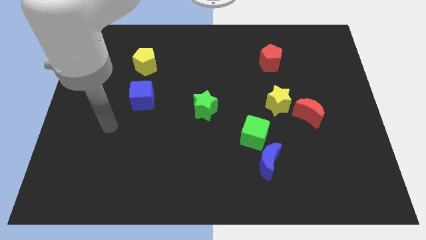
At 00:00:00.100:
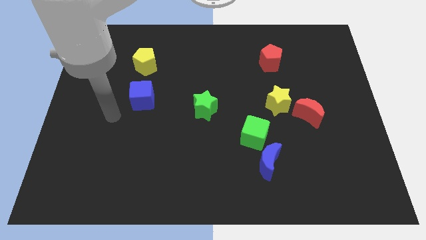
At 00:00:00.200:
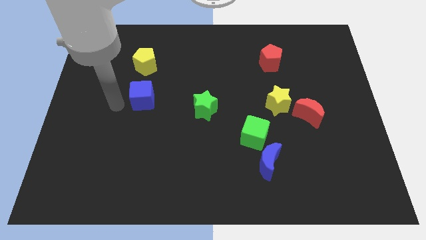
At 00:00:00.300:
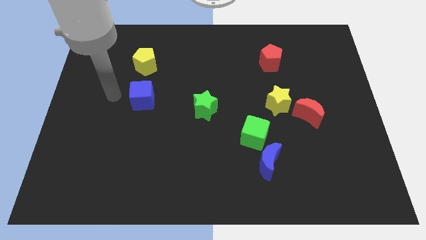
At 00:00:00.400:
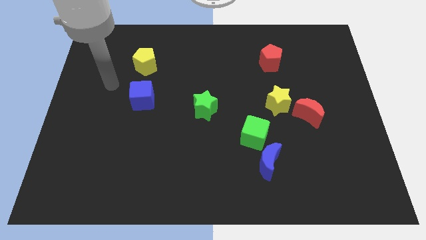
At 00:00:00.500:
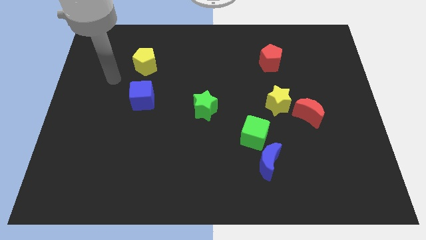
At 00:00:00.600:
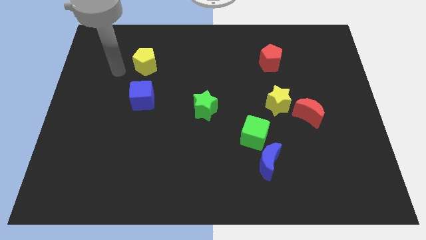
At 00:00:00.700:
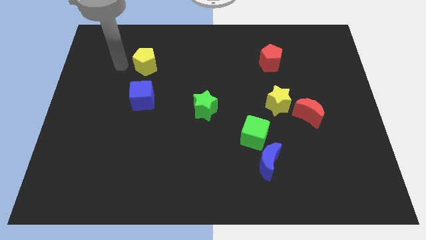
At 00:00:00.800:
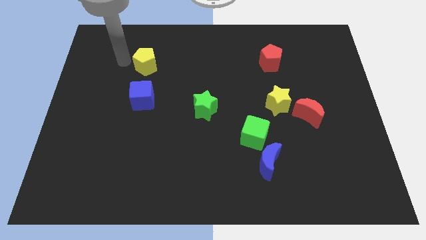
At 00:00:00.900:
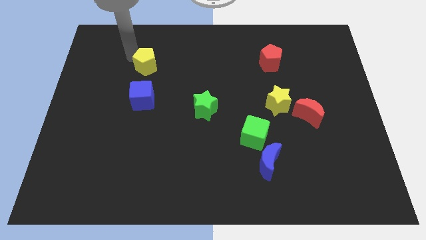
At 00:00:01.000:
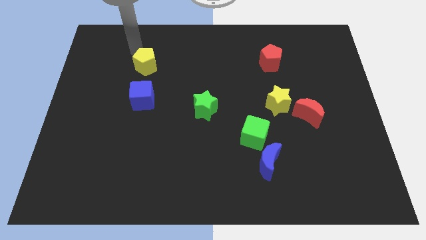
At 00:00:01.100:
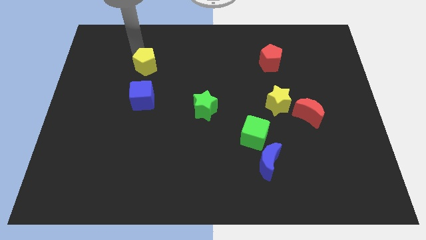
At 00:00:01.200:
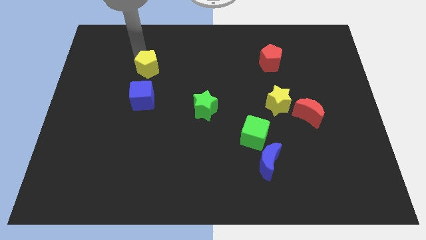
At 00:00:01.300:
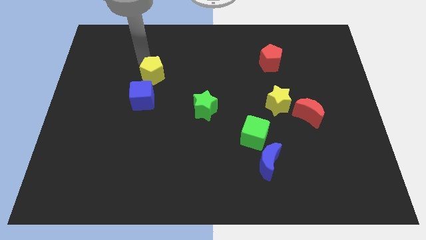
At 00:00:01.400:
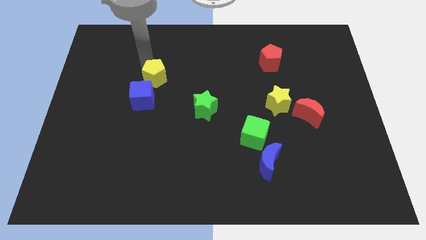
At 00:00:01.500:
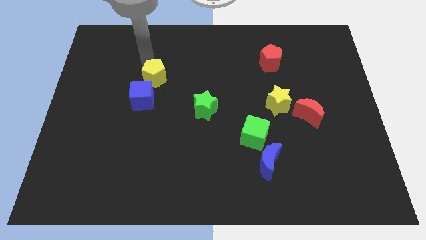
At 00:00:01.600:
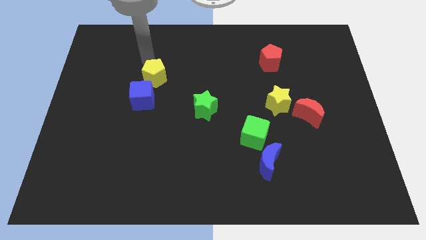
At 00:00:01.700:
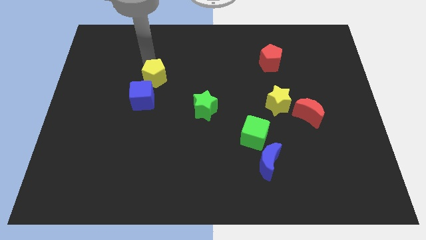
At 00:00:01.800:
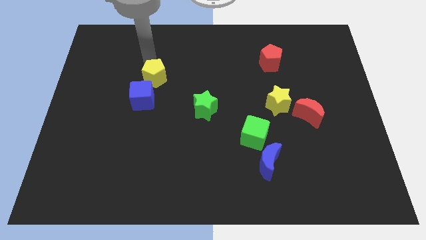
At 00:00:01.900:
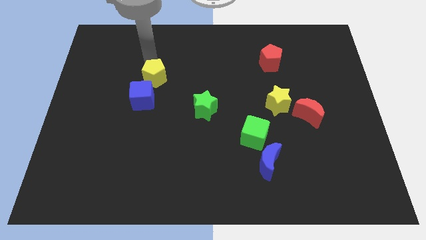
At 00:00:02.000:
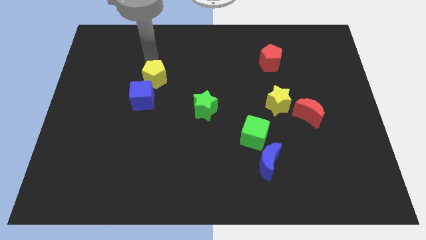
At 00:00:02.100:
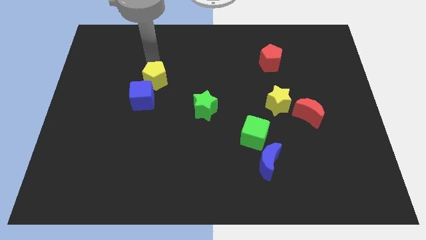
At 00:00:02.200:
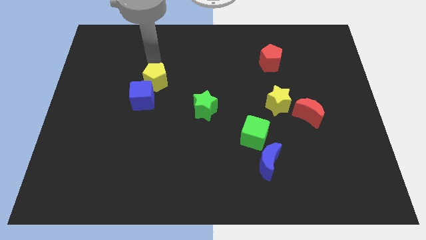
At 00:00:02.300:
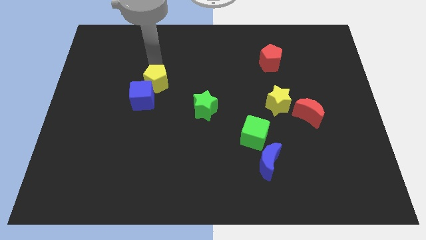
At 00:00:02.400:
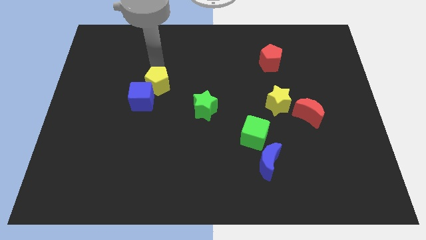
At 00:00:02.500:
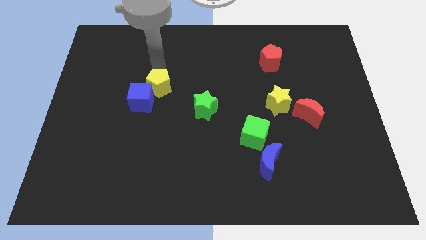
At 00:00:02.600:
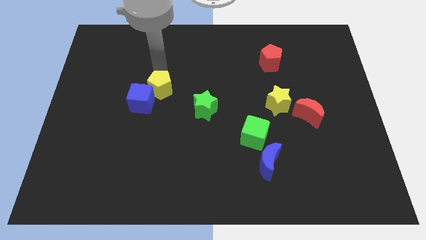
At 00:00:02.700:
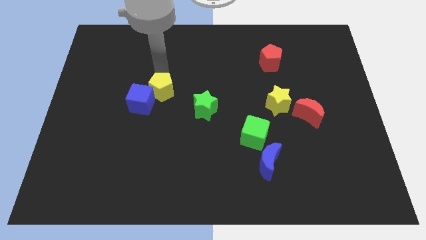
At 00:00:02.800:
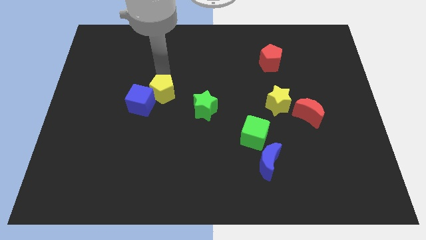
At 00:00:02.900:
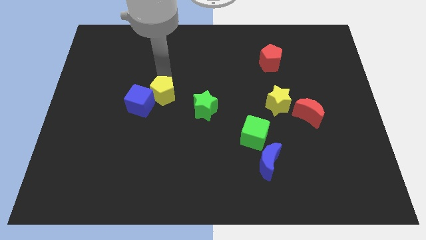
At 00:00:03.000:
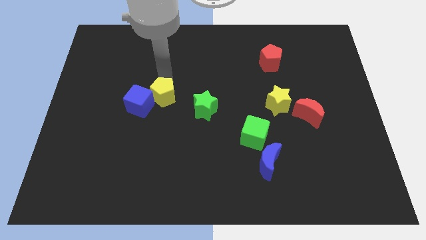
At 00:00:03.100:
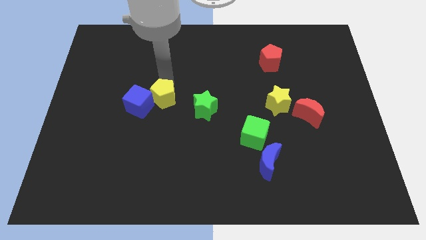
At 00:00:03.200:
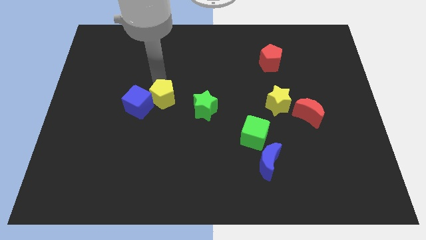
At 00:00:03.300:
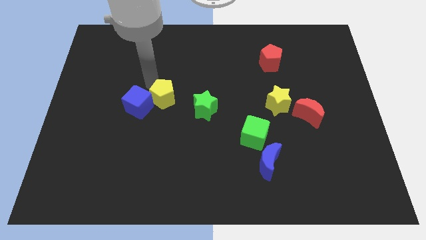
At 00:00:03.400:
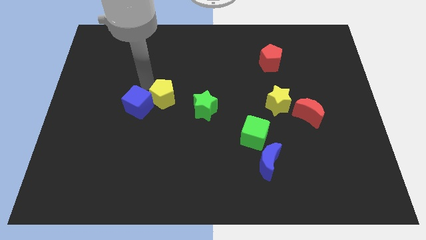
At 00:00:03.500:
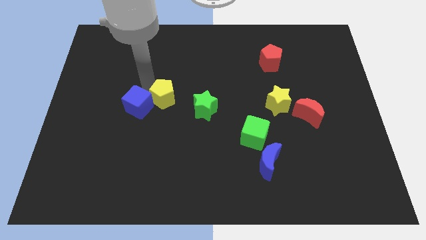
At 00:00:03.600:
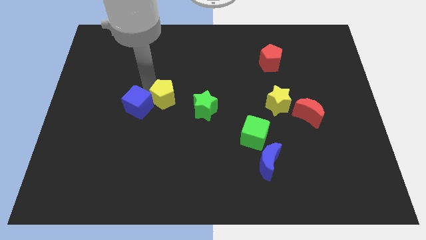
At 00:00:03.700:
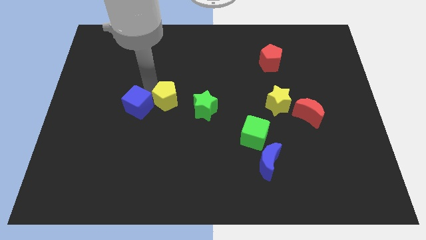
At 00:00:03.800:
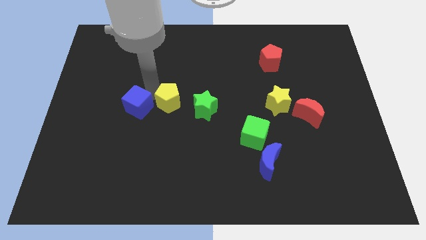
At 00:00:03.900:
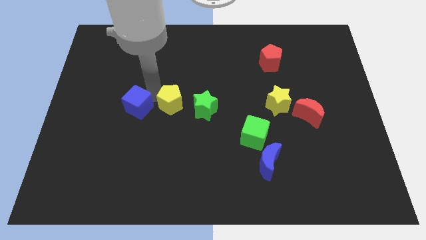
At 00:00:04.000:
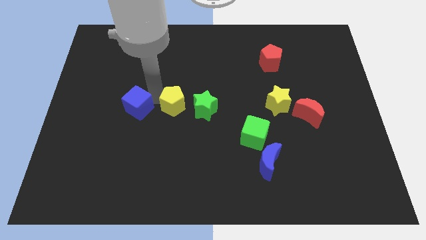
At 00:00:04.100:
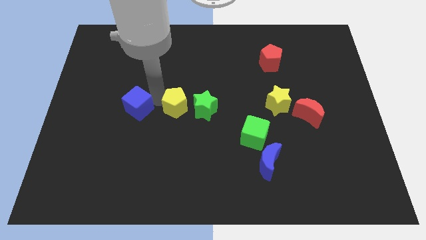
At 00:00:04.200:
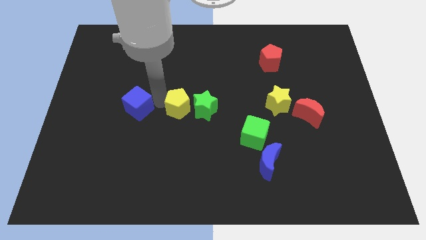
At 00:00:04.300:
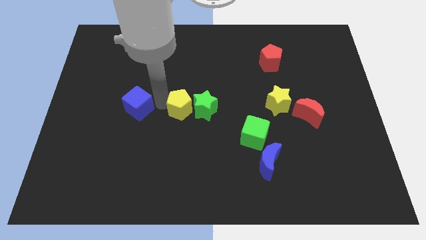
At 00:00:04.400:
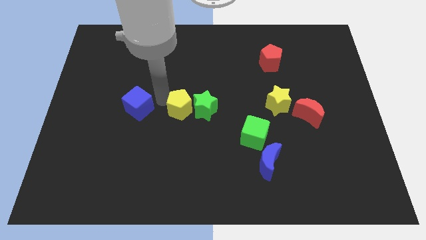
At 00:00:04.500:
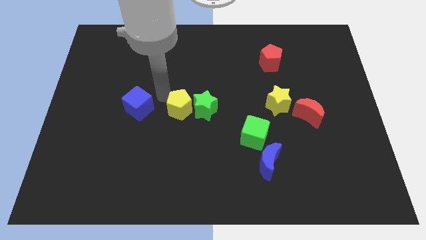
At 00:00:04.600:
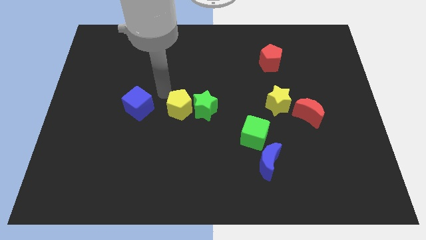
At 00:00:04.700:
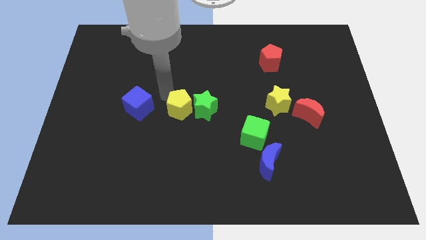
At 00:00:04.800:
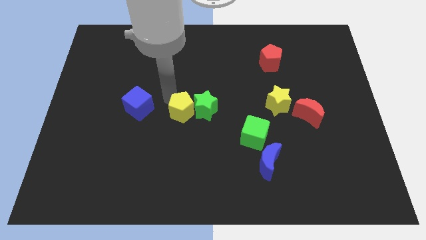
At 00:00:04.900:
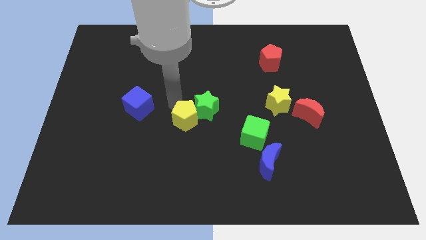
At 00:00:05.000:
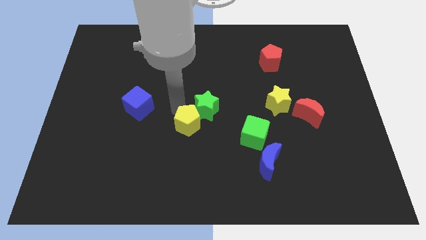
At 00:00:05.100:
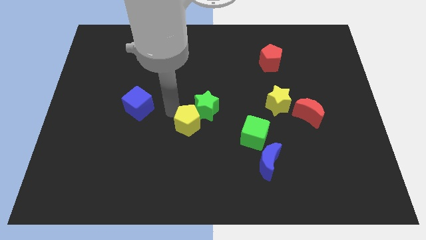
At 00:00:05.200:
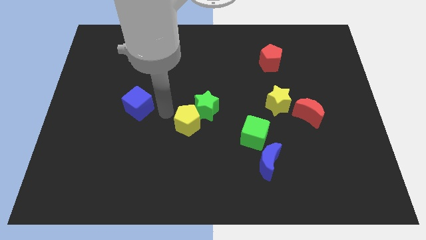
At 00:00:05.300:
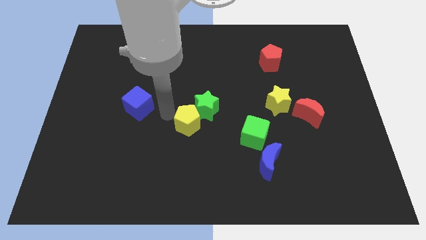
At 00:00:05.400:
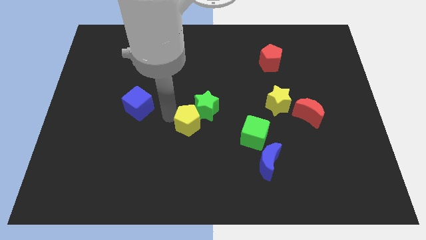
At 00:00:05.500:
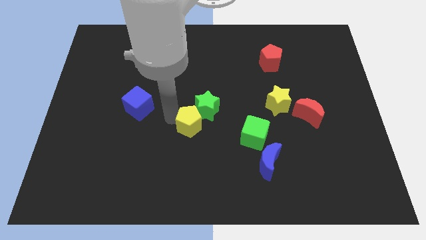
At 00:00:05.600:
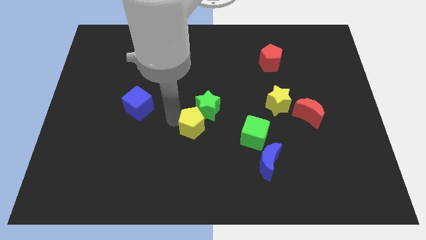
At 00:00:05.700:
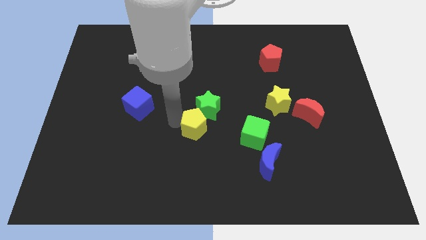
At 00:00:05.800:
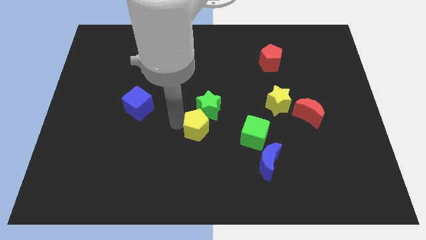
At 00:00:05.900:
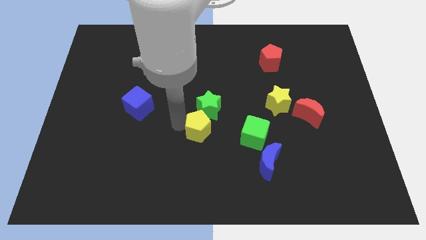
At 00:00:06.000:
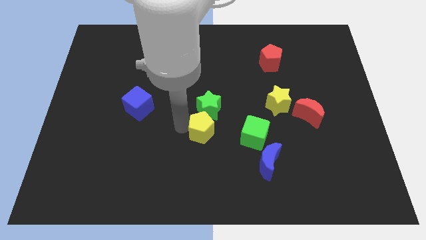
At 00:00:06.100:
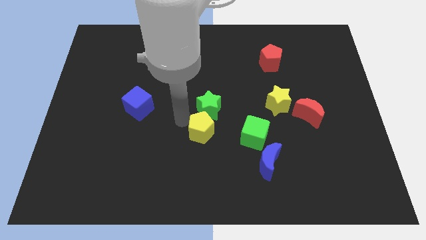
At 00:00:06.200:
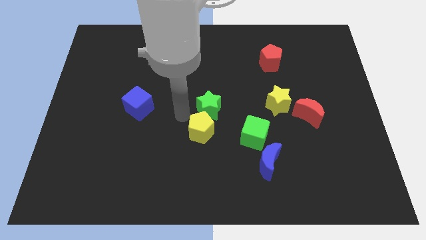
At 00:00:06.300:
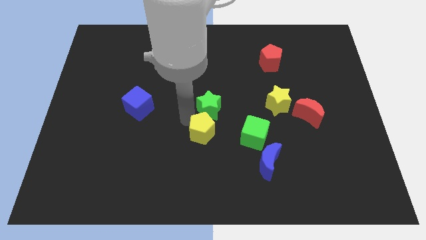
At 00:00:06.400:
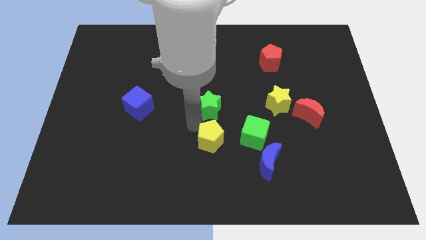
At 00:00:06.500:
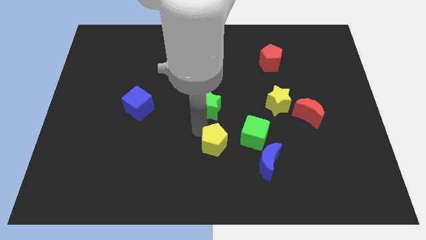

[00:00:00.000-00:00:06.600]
move the yellow pentagon to the bottom left of the green cube
